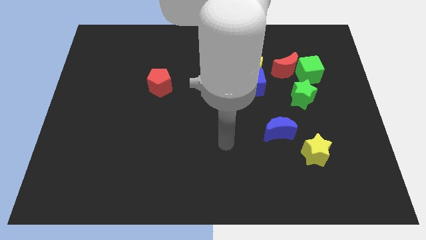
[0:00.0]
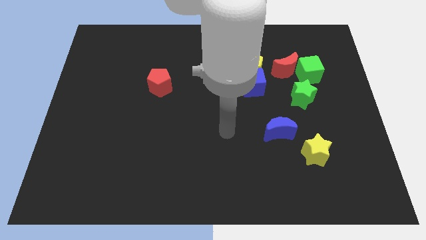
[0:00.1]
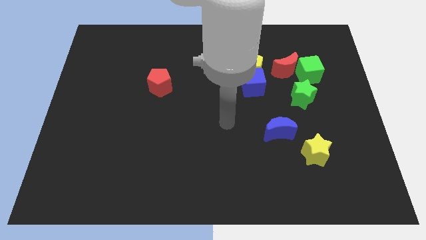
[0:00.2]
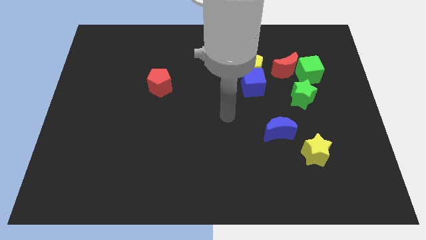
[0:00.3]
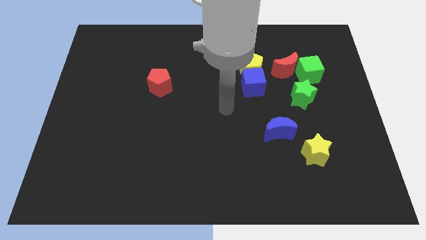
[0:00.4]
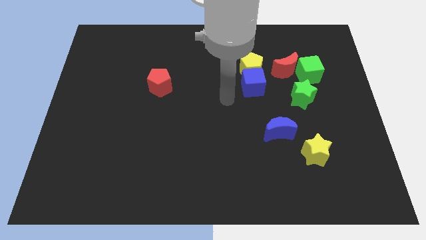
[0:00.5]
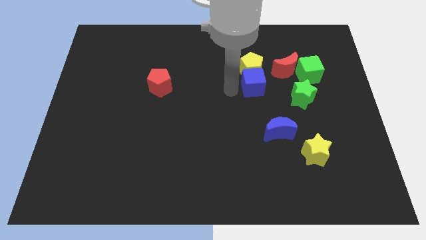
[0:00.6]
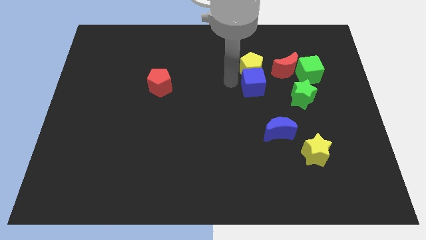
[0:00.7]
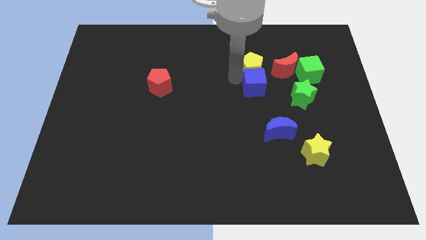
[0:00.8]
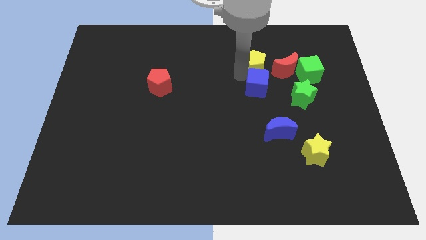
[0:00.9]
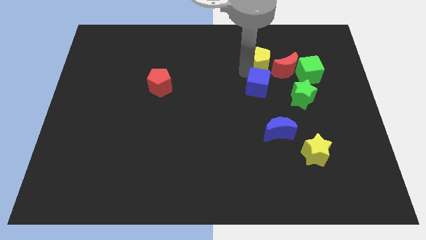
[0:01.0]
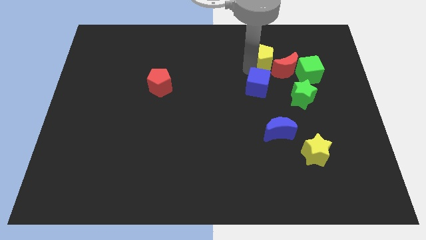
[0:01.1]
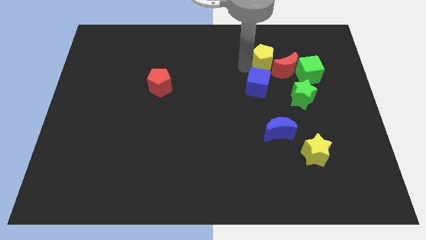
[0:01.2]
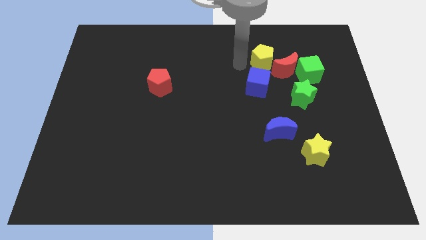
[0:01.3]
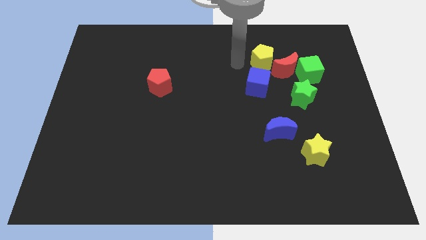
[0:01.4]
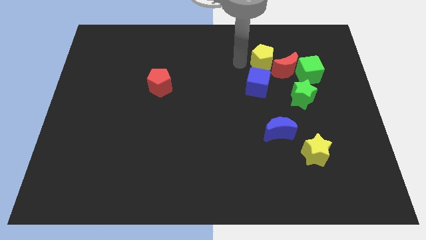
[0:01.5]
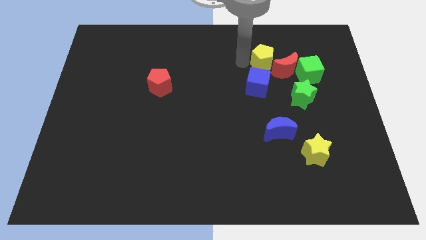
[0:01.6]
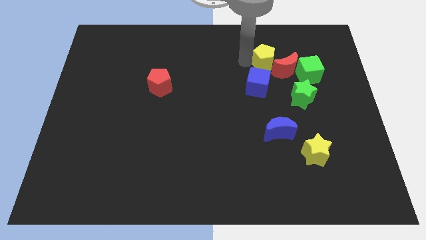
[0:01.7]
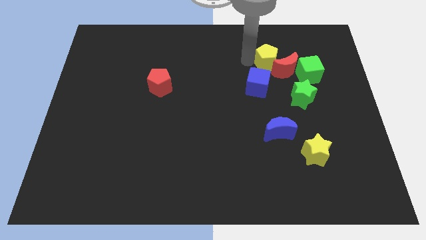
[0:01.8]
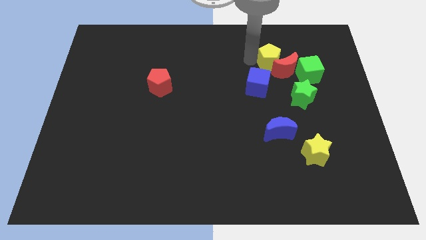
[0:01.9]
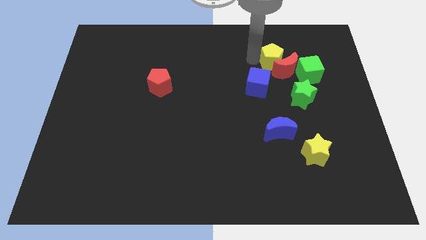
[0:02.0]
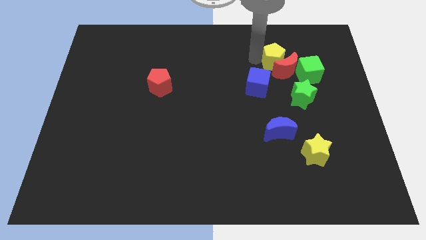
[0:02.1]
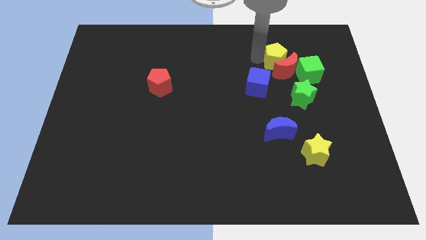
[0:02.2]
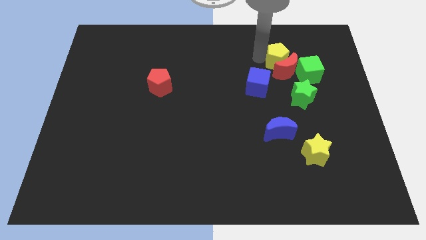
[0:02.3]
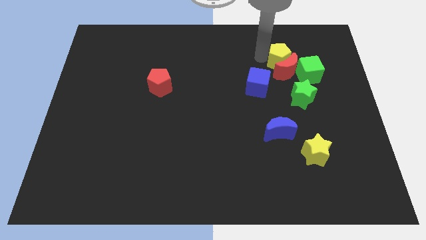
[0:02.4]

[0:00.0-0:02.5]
slide the yellow pentagon right a little

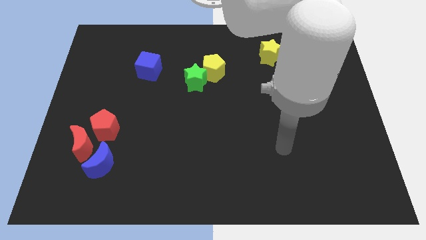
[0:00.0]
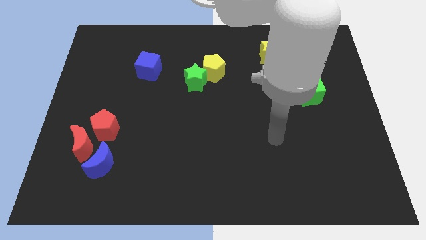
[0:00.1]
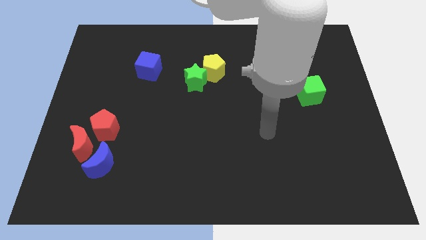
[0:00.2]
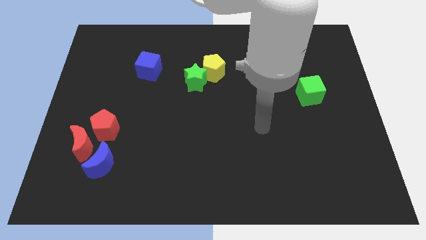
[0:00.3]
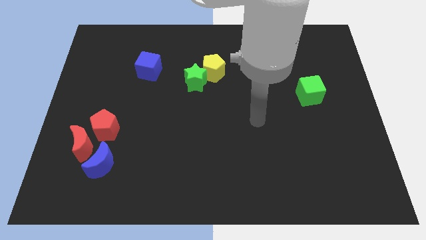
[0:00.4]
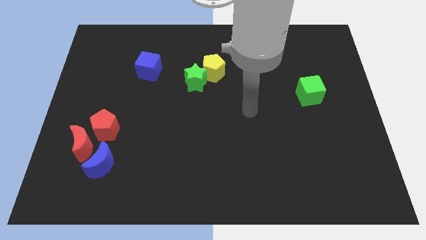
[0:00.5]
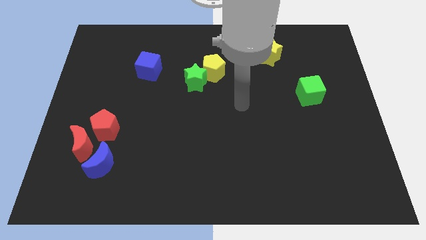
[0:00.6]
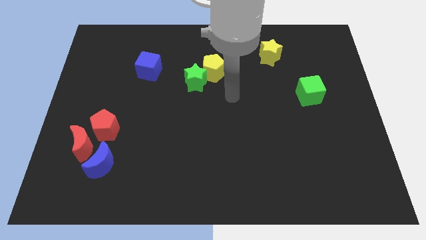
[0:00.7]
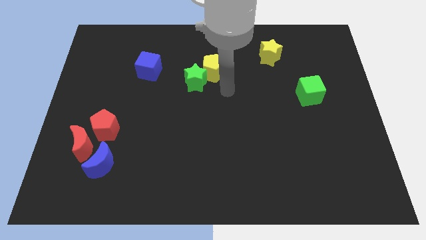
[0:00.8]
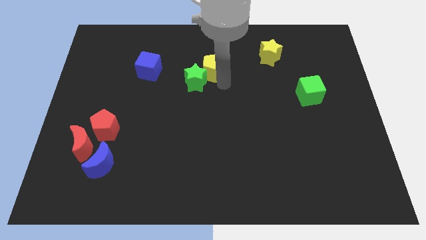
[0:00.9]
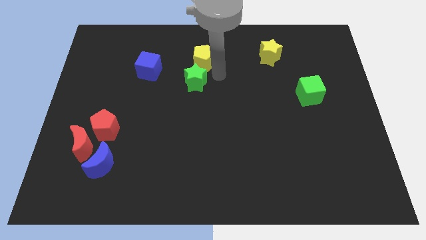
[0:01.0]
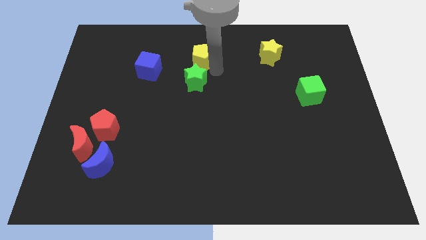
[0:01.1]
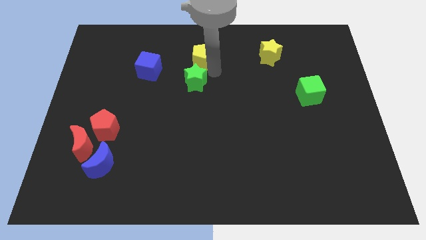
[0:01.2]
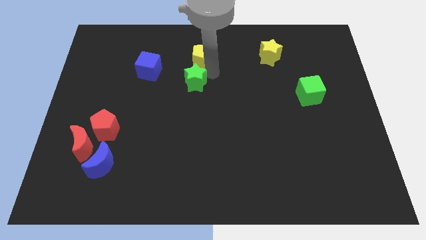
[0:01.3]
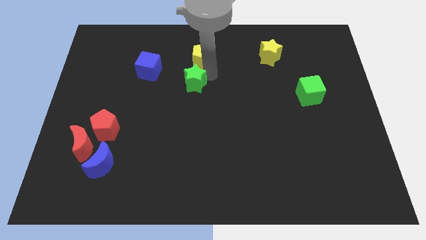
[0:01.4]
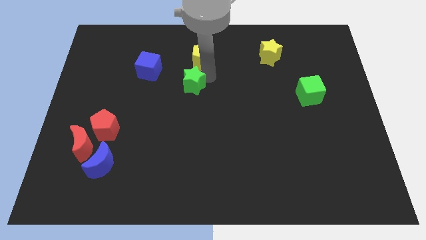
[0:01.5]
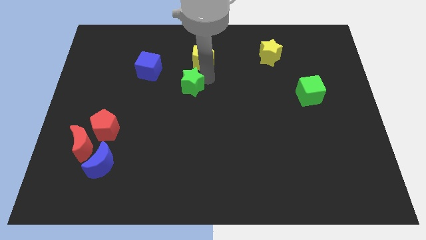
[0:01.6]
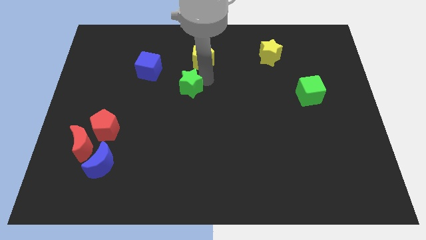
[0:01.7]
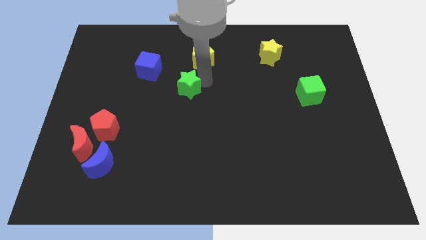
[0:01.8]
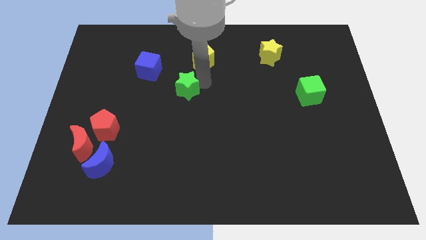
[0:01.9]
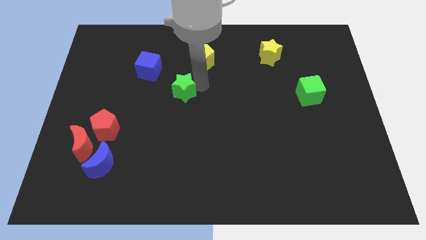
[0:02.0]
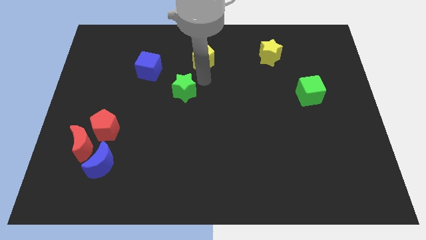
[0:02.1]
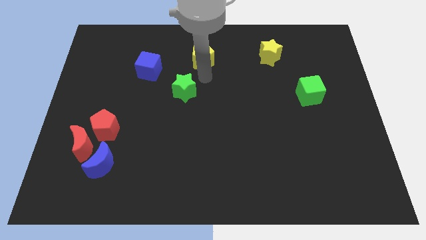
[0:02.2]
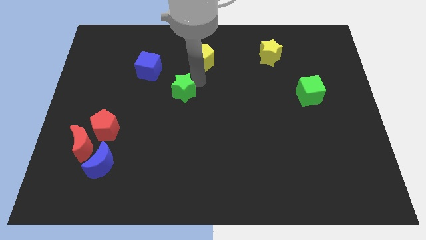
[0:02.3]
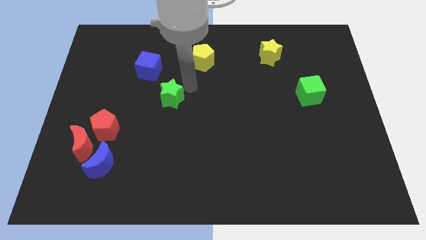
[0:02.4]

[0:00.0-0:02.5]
push the green star down and left diagonally a bit

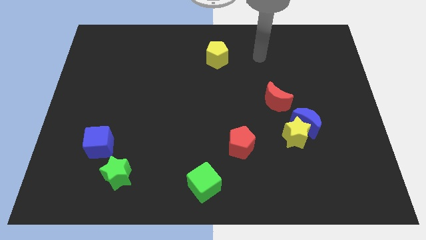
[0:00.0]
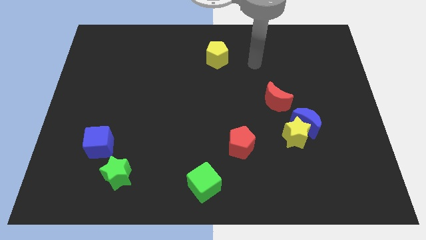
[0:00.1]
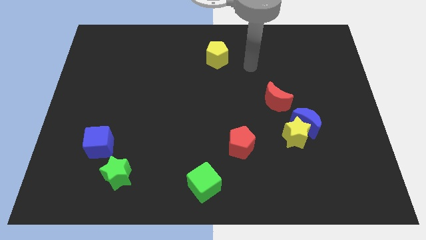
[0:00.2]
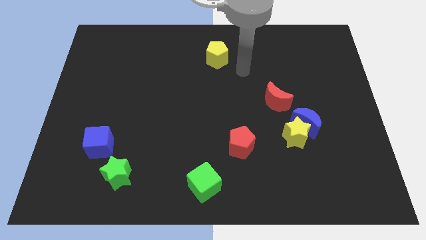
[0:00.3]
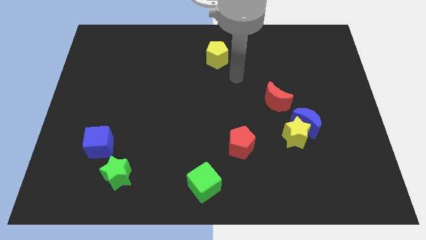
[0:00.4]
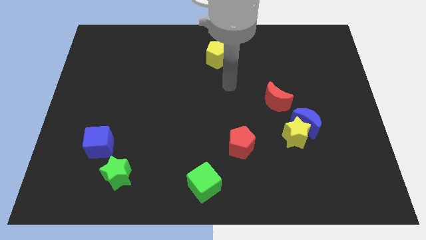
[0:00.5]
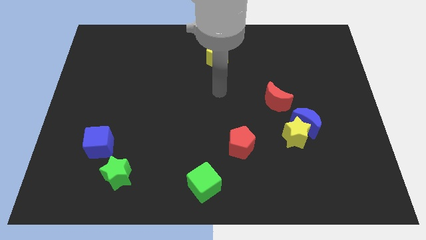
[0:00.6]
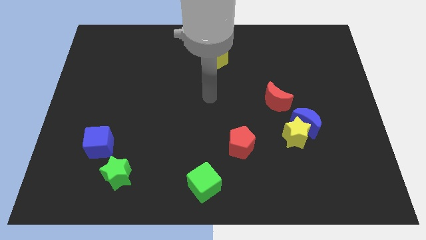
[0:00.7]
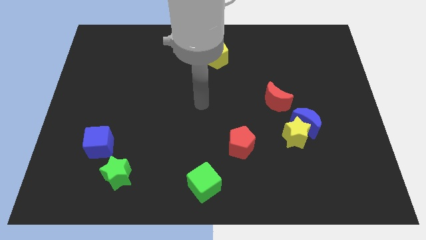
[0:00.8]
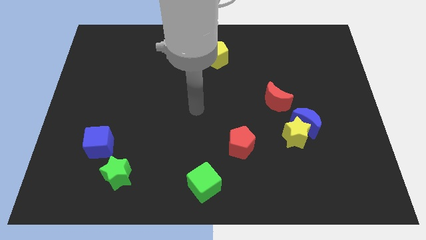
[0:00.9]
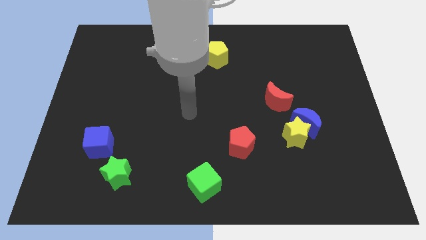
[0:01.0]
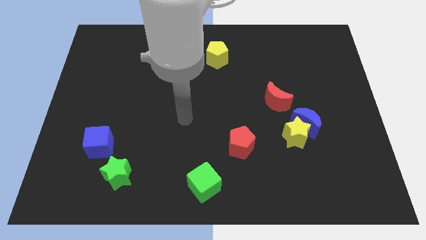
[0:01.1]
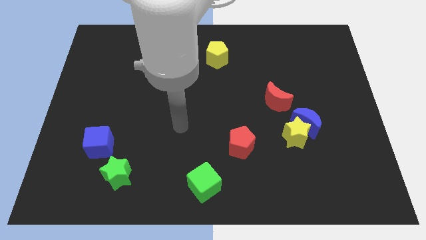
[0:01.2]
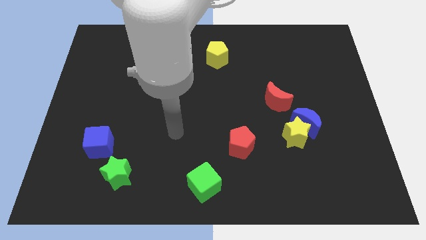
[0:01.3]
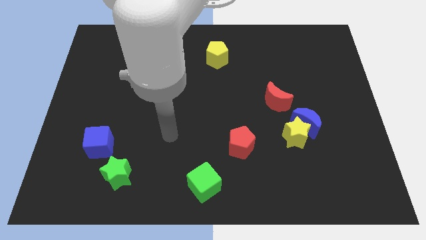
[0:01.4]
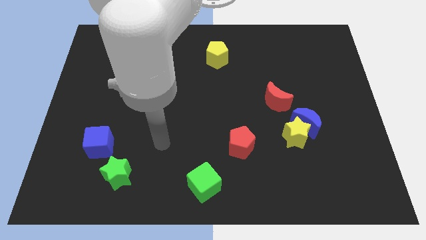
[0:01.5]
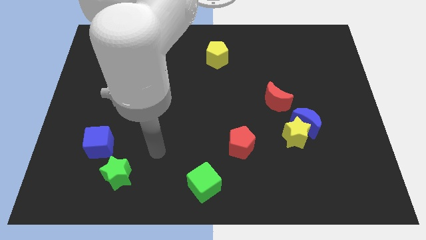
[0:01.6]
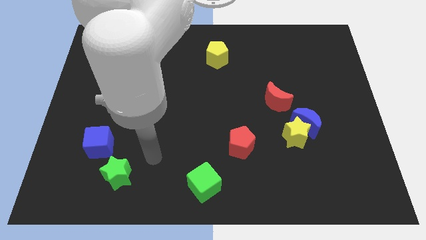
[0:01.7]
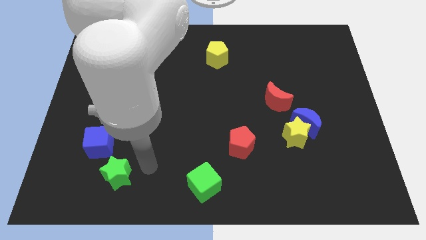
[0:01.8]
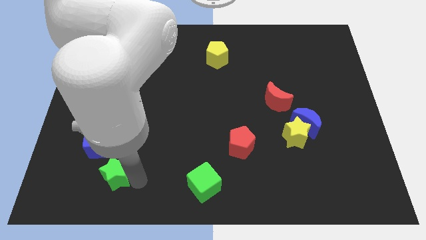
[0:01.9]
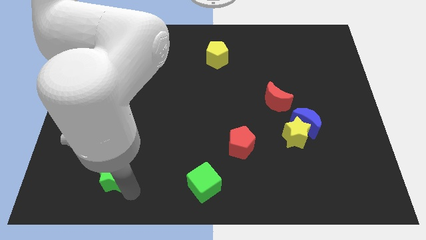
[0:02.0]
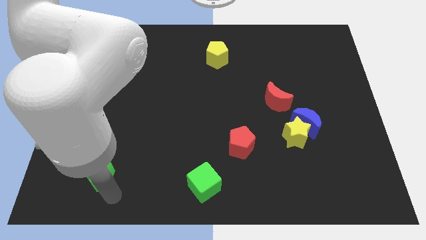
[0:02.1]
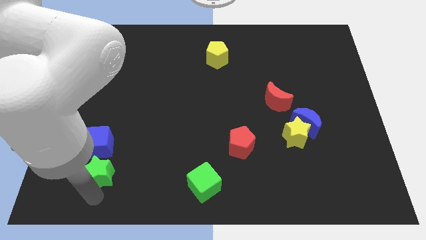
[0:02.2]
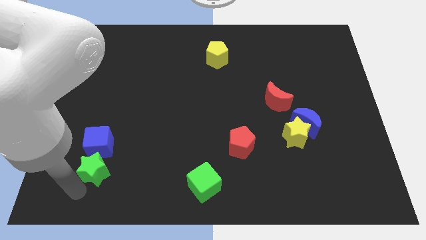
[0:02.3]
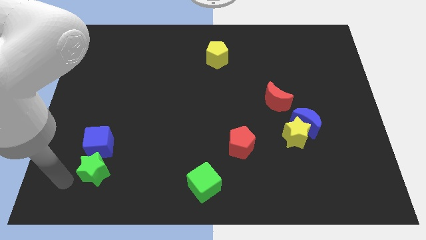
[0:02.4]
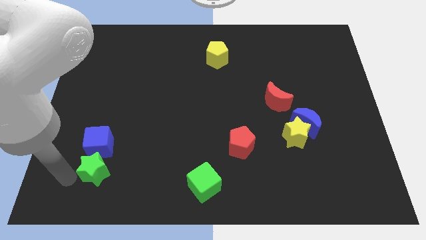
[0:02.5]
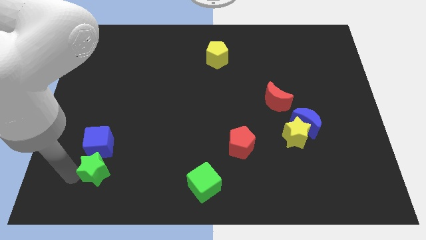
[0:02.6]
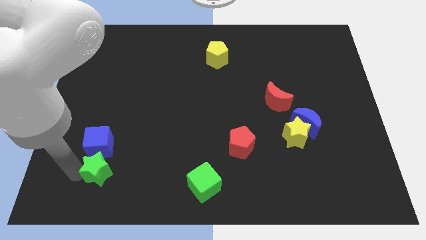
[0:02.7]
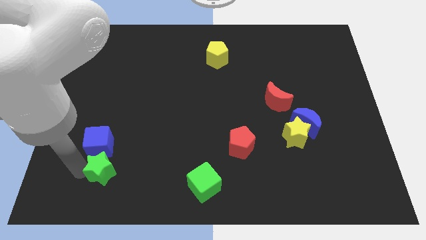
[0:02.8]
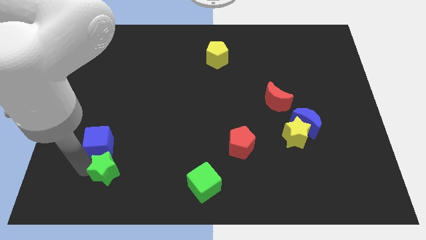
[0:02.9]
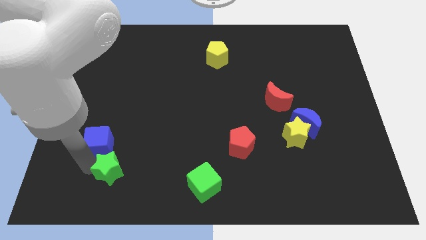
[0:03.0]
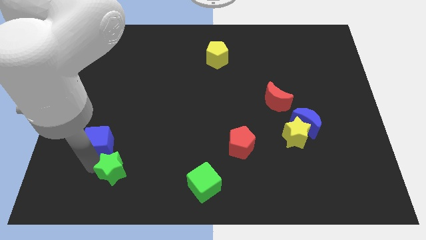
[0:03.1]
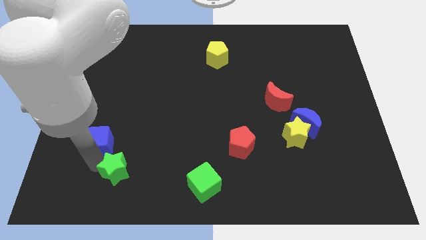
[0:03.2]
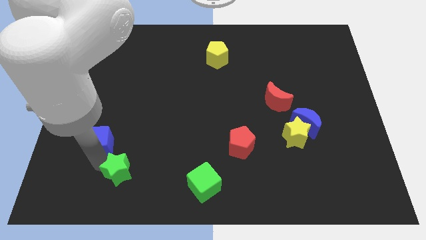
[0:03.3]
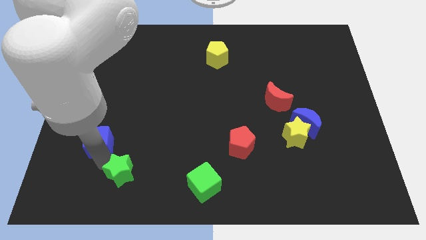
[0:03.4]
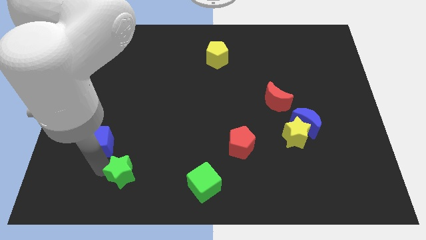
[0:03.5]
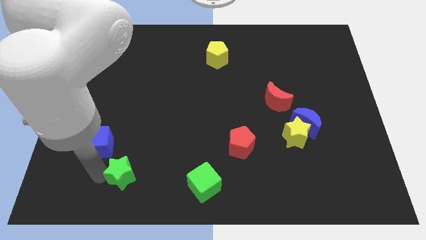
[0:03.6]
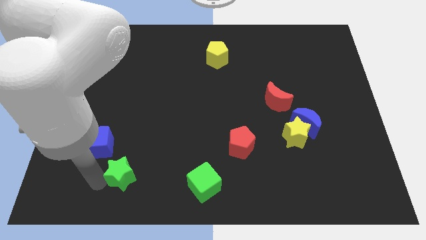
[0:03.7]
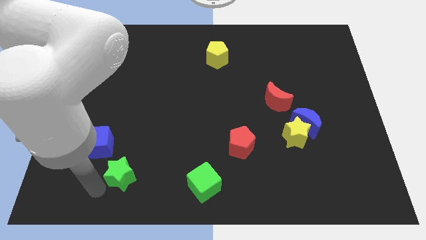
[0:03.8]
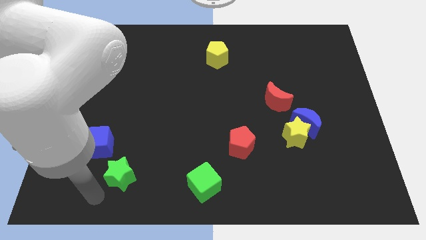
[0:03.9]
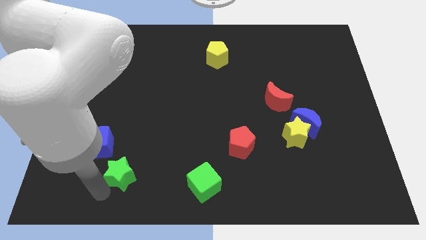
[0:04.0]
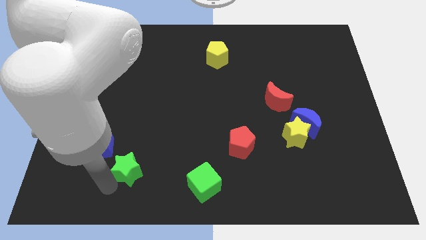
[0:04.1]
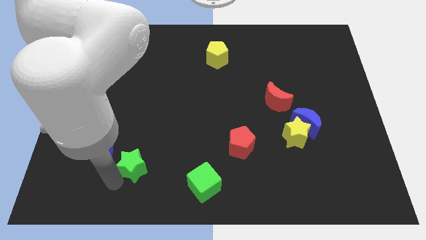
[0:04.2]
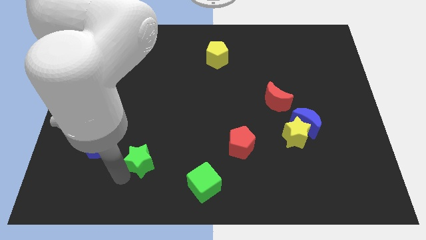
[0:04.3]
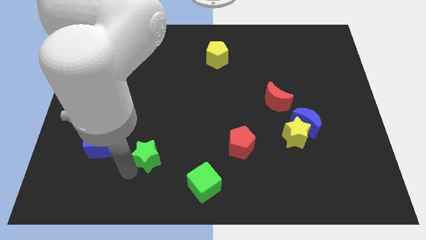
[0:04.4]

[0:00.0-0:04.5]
move the green star somewhat diagonally up and to the right
